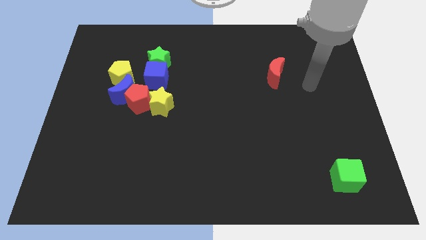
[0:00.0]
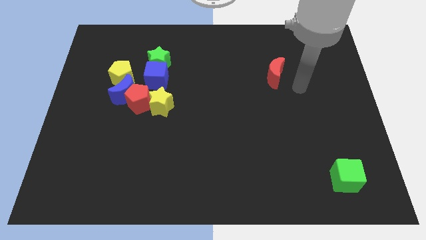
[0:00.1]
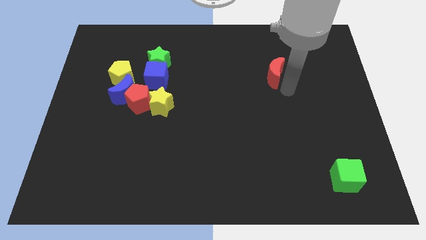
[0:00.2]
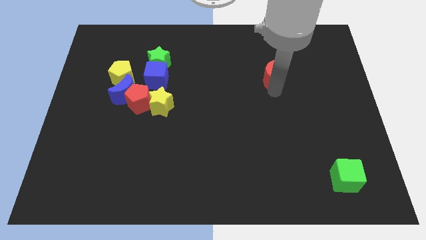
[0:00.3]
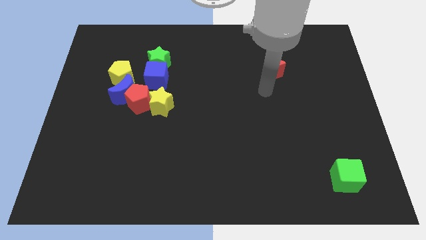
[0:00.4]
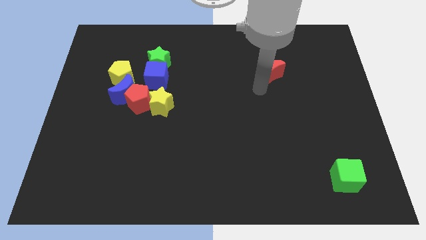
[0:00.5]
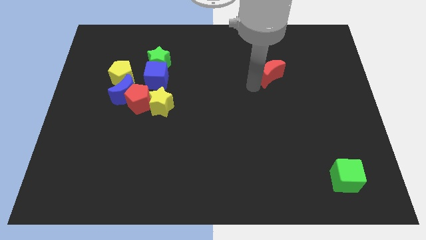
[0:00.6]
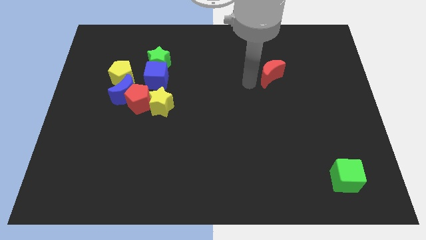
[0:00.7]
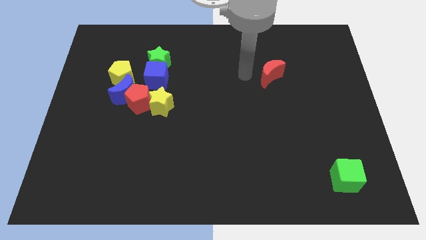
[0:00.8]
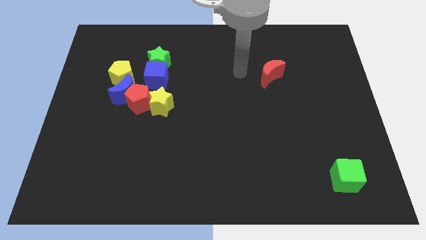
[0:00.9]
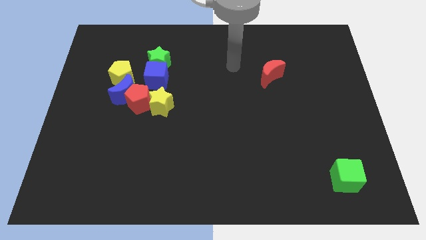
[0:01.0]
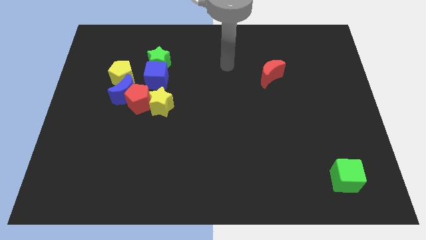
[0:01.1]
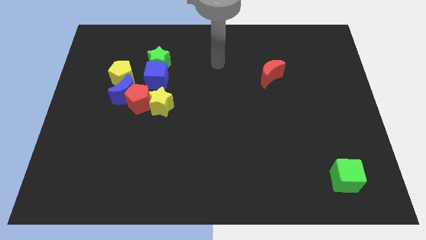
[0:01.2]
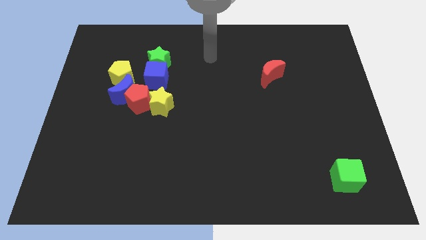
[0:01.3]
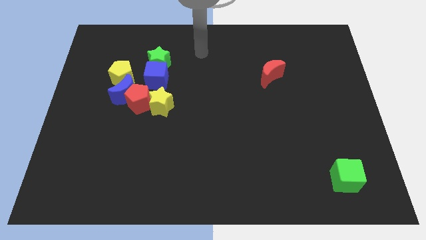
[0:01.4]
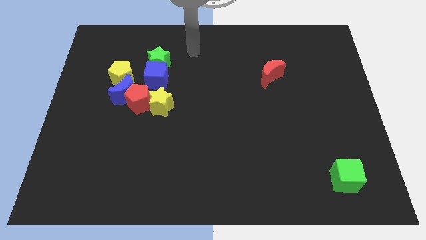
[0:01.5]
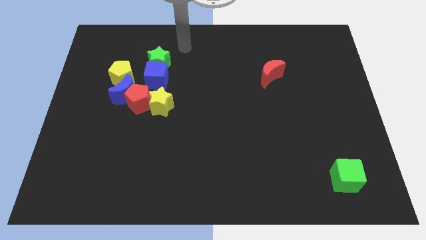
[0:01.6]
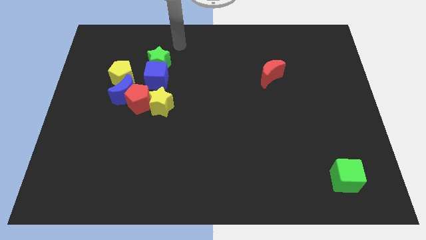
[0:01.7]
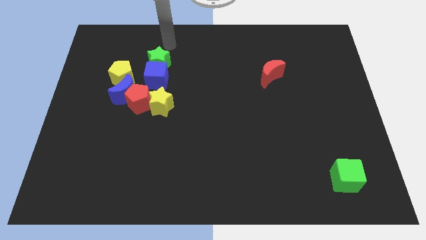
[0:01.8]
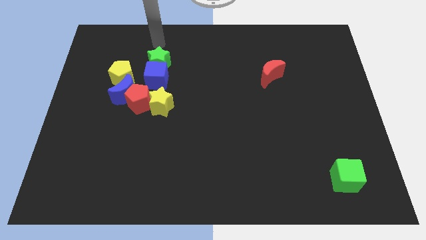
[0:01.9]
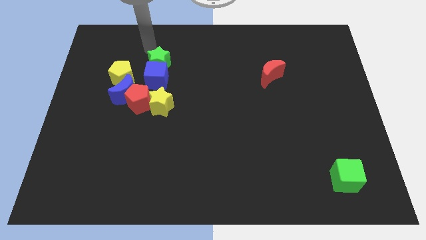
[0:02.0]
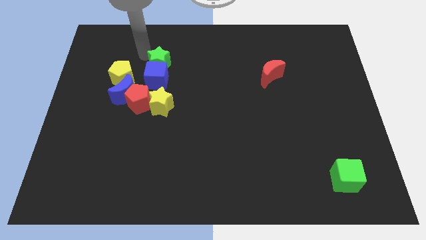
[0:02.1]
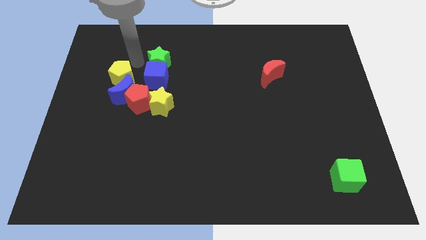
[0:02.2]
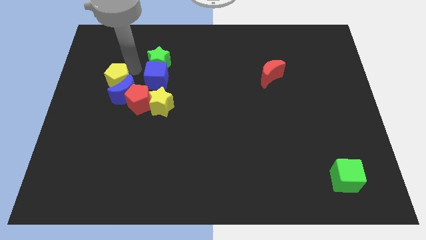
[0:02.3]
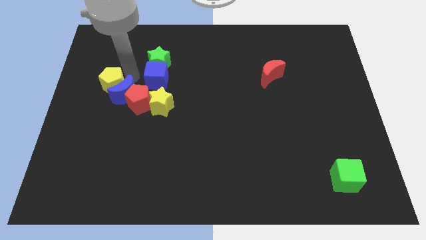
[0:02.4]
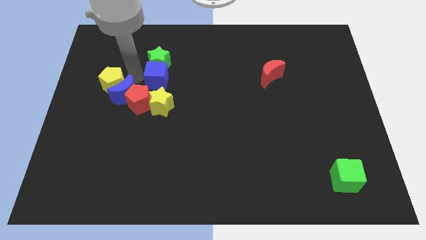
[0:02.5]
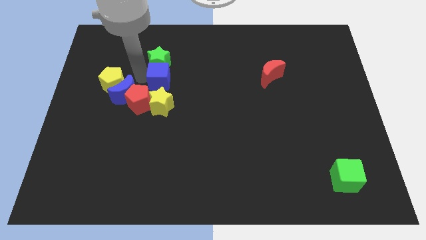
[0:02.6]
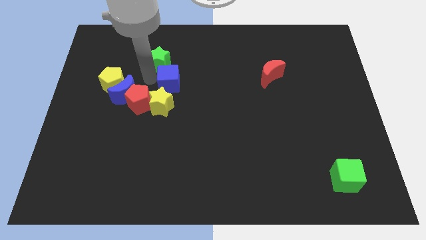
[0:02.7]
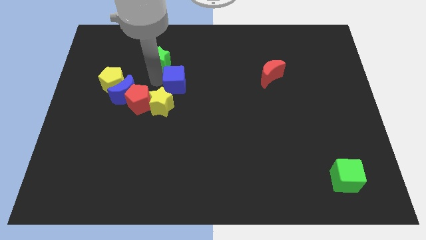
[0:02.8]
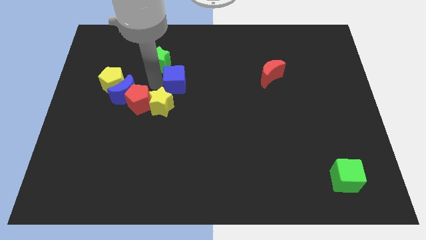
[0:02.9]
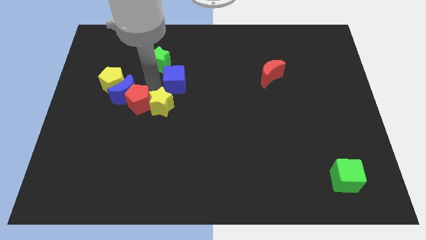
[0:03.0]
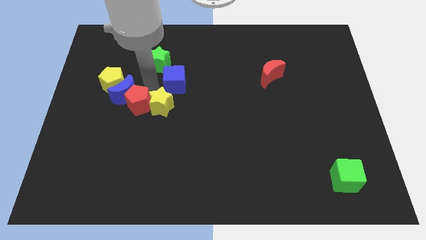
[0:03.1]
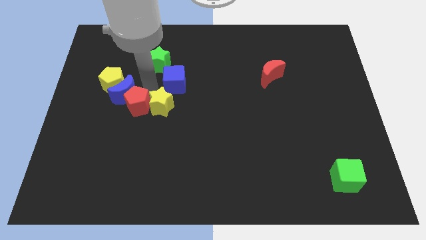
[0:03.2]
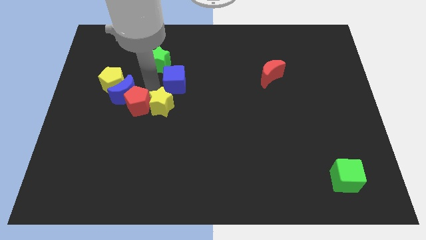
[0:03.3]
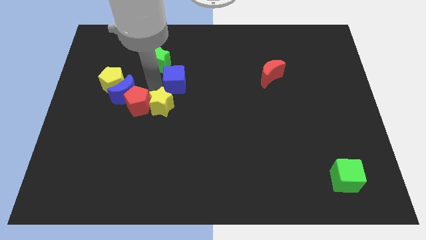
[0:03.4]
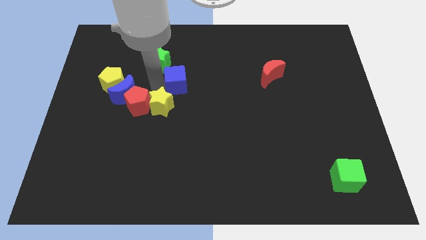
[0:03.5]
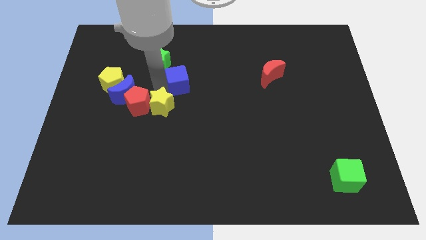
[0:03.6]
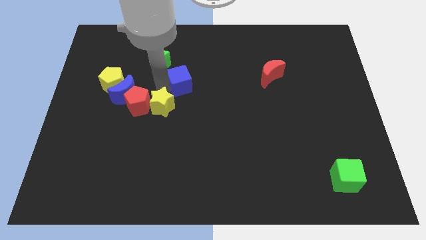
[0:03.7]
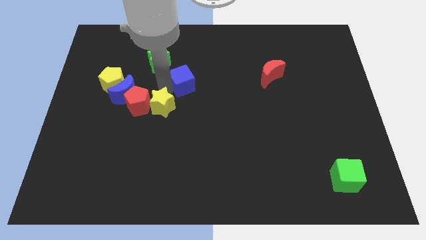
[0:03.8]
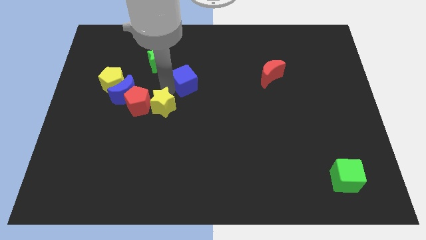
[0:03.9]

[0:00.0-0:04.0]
move the blue cube a little bit to the right

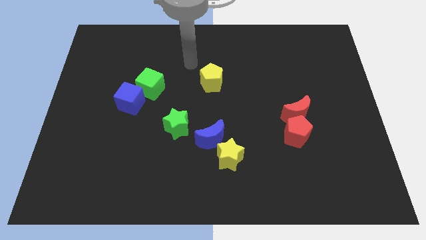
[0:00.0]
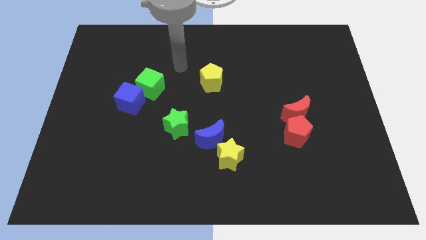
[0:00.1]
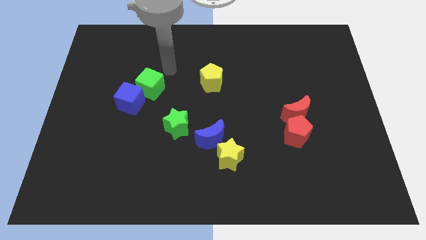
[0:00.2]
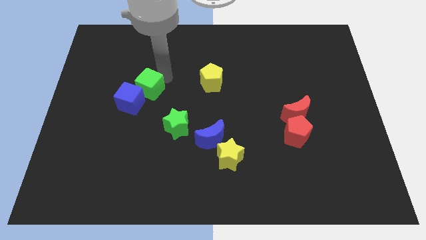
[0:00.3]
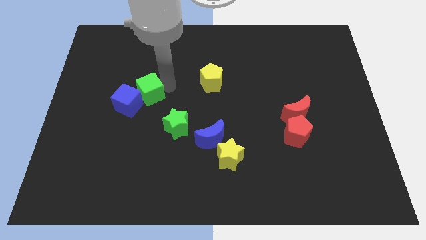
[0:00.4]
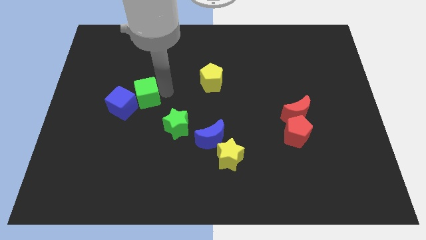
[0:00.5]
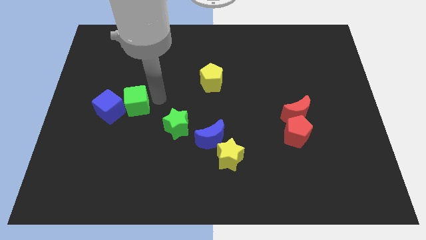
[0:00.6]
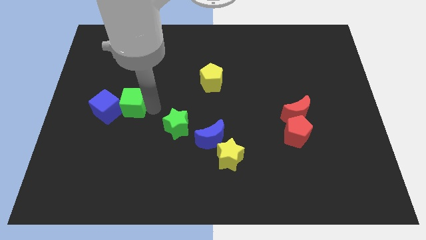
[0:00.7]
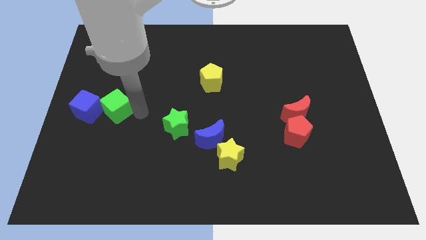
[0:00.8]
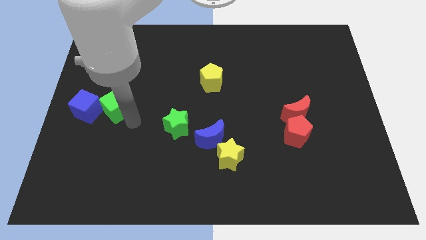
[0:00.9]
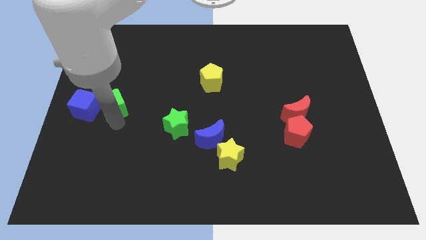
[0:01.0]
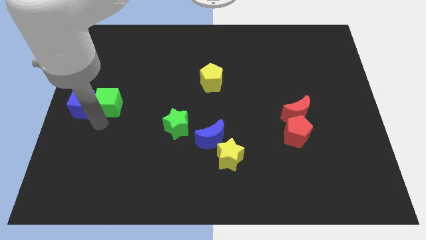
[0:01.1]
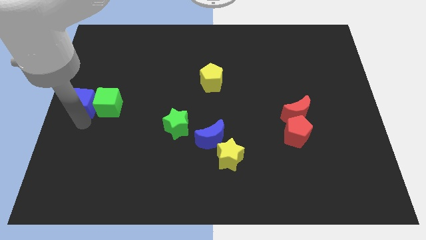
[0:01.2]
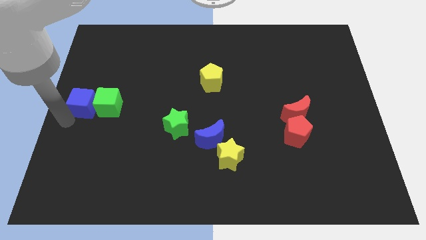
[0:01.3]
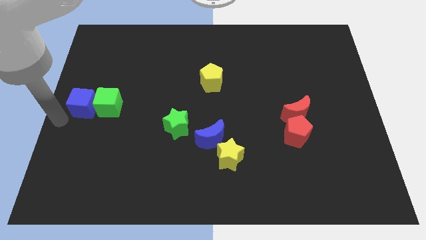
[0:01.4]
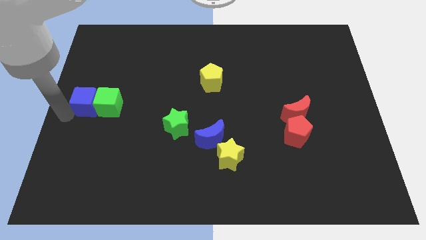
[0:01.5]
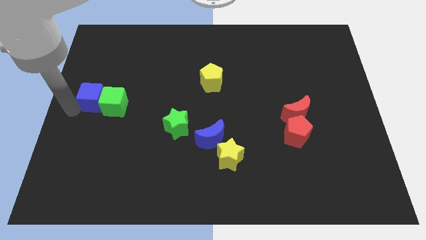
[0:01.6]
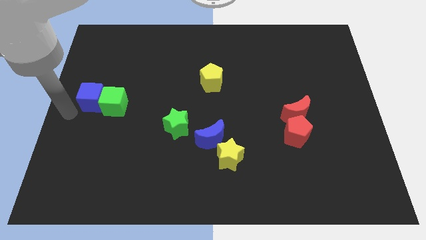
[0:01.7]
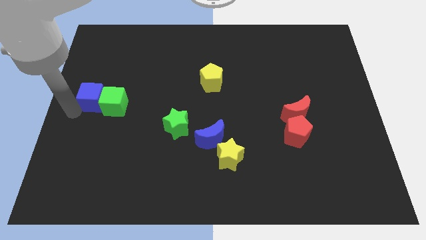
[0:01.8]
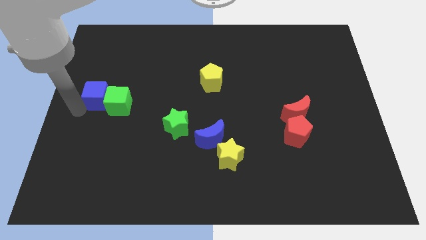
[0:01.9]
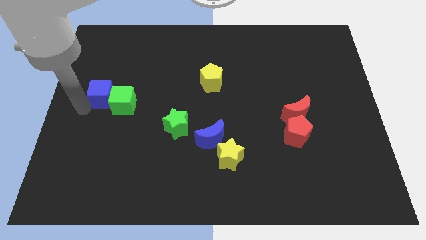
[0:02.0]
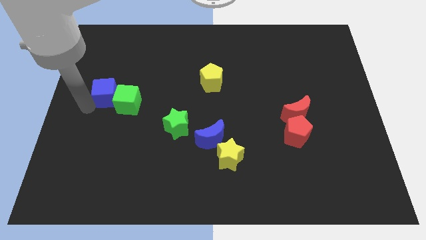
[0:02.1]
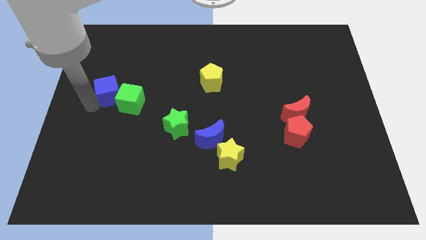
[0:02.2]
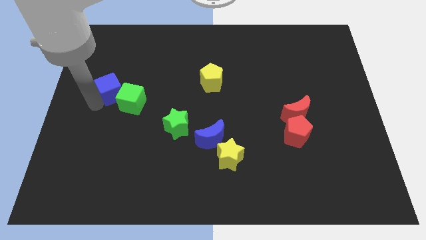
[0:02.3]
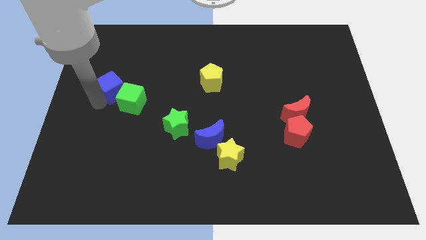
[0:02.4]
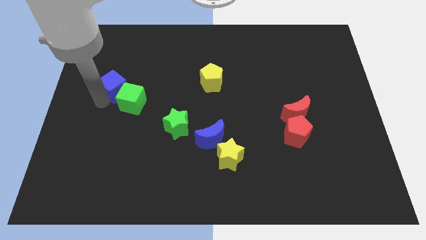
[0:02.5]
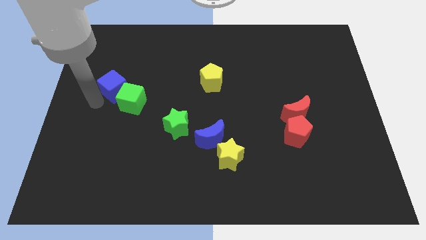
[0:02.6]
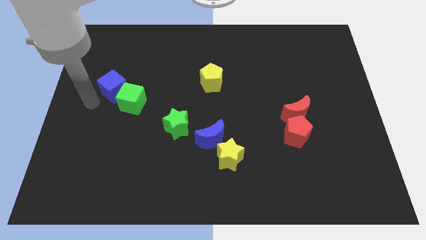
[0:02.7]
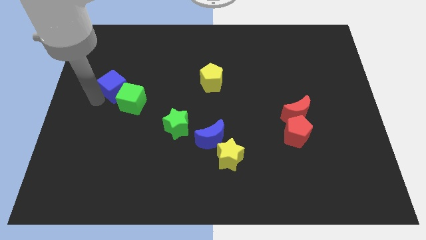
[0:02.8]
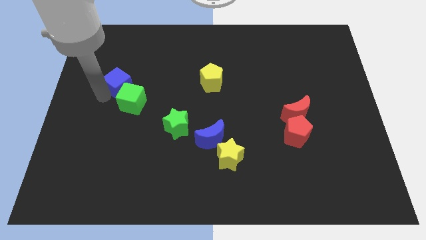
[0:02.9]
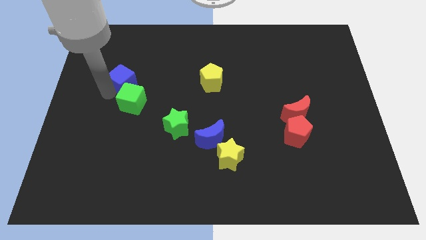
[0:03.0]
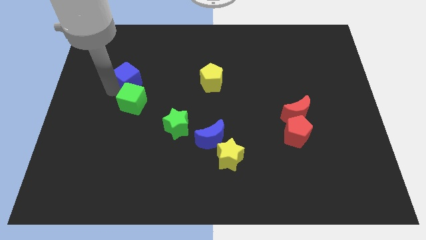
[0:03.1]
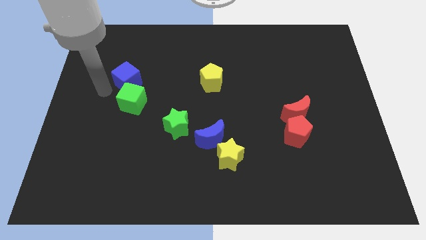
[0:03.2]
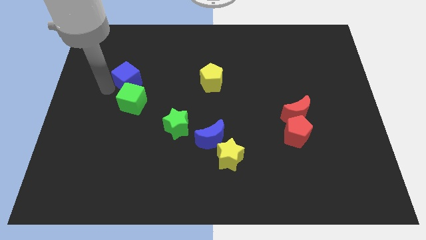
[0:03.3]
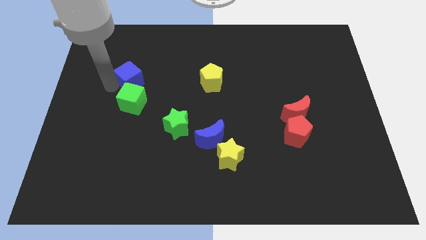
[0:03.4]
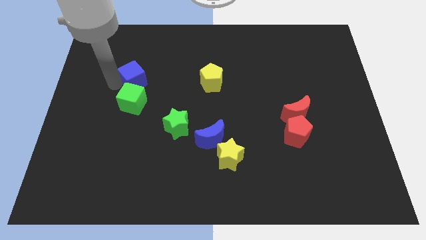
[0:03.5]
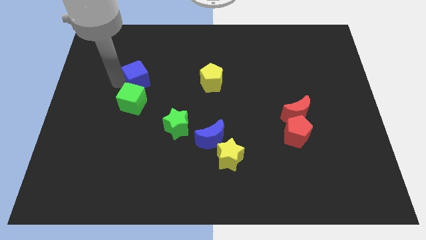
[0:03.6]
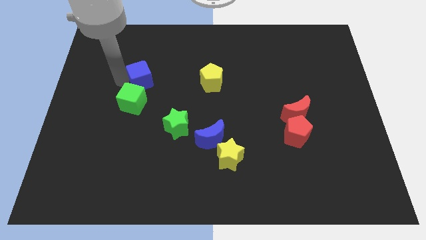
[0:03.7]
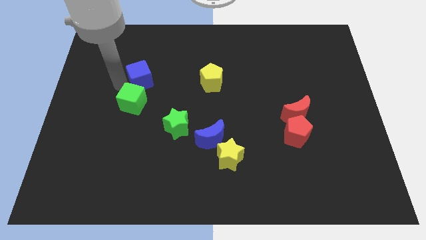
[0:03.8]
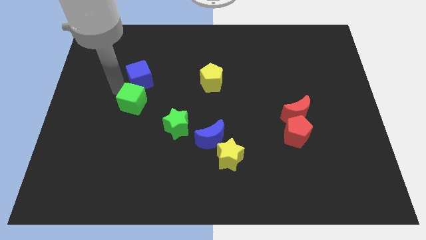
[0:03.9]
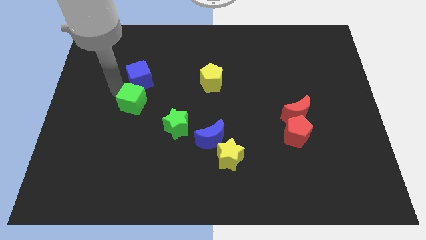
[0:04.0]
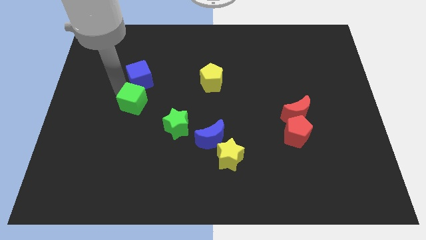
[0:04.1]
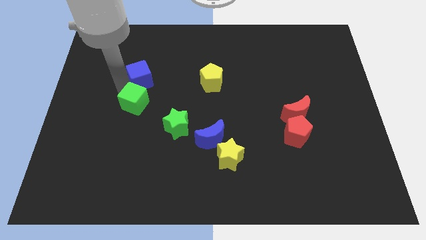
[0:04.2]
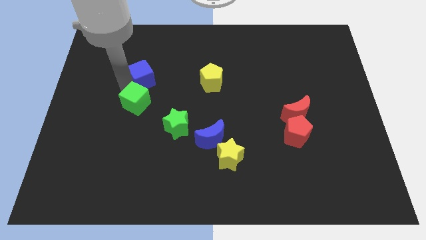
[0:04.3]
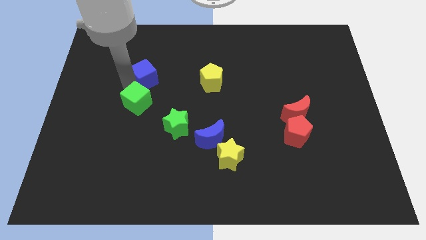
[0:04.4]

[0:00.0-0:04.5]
move the blue cube up and then right slightly
